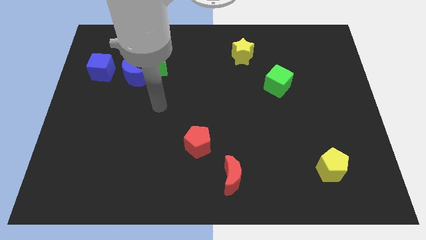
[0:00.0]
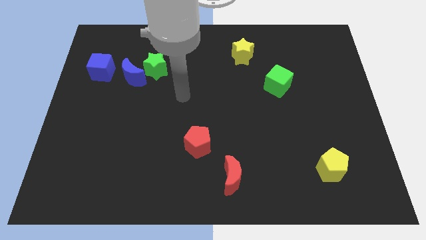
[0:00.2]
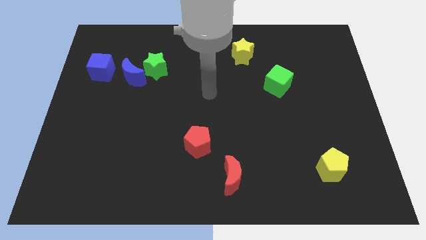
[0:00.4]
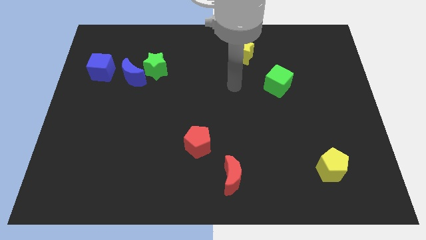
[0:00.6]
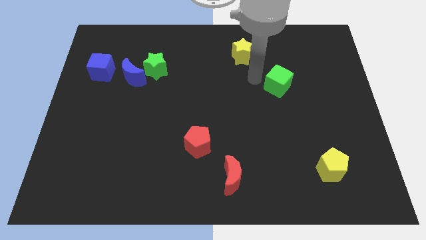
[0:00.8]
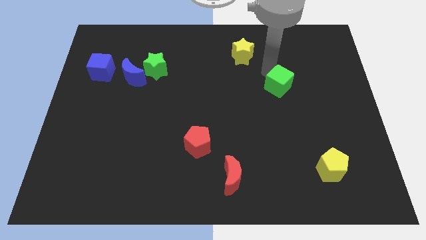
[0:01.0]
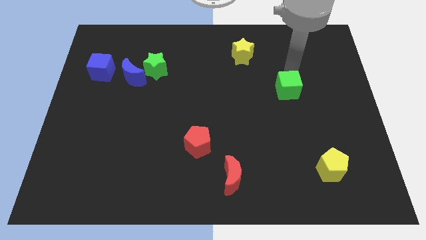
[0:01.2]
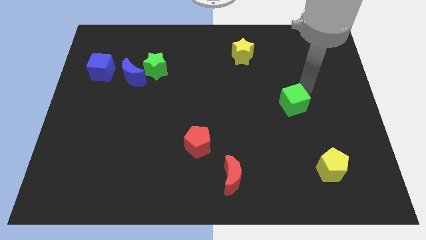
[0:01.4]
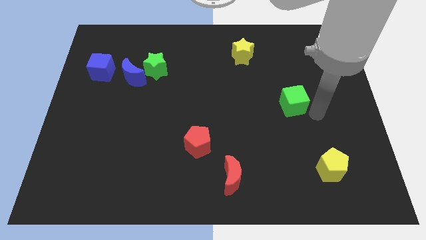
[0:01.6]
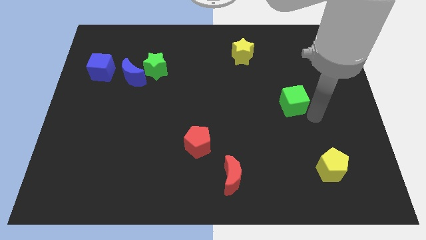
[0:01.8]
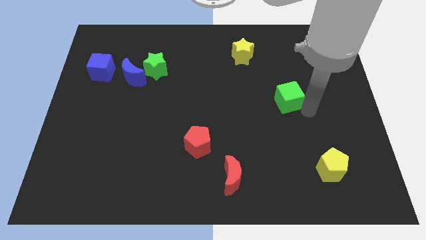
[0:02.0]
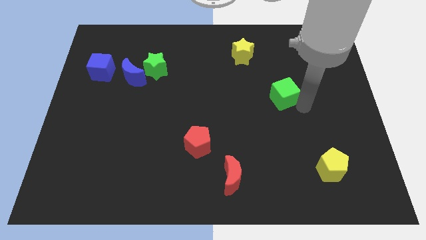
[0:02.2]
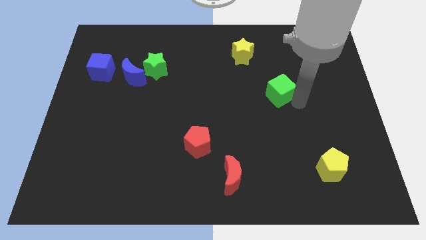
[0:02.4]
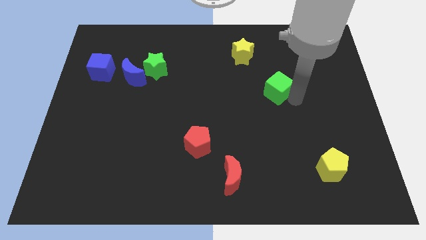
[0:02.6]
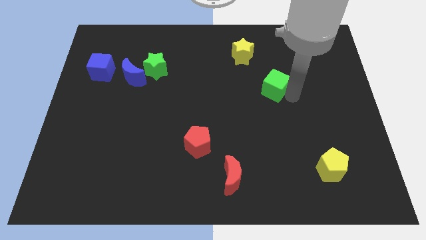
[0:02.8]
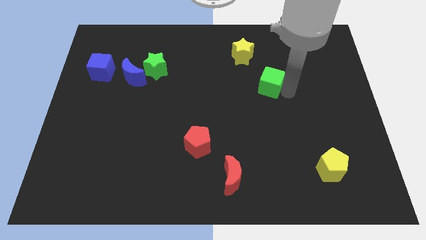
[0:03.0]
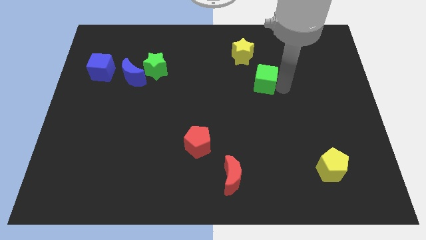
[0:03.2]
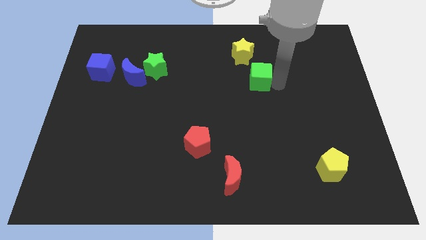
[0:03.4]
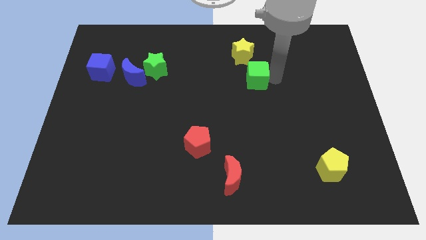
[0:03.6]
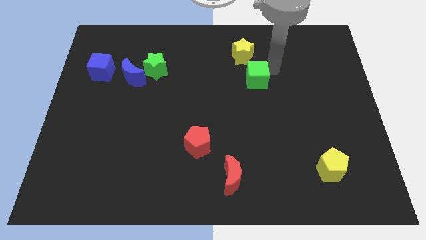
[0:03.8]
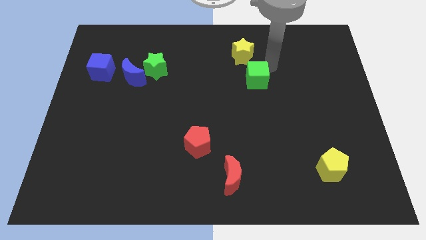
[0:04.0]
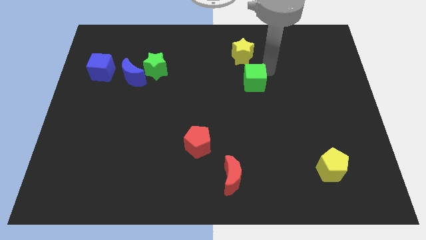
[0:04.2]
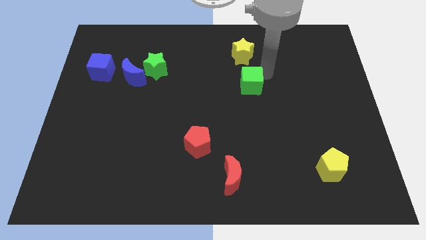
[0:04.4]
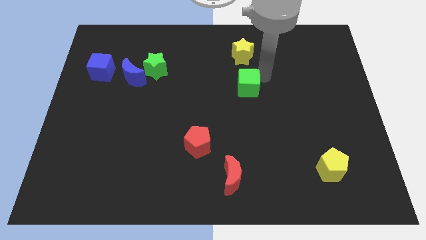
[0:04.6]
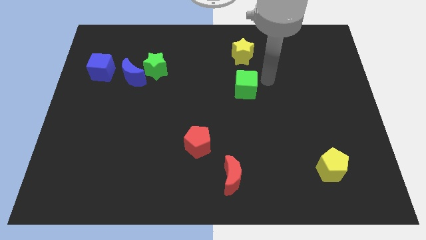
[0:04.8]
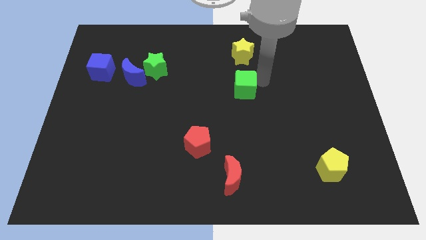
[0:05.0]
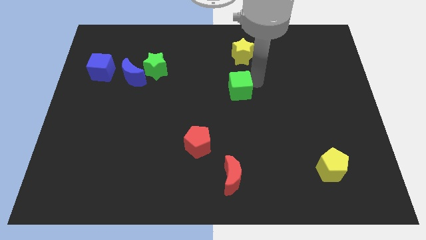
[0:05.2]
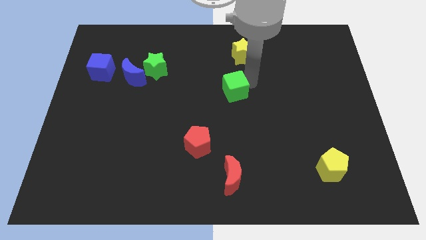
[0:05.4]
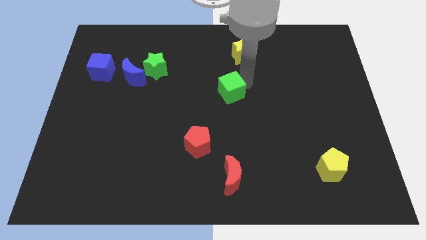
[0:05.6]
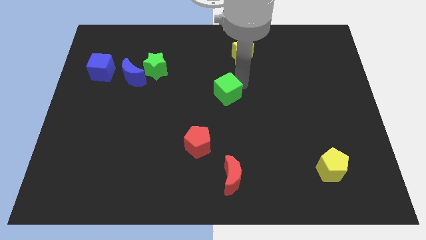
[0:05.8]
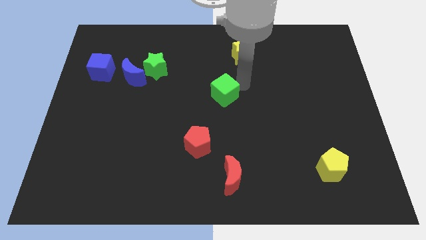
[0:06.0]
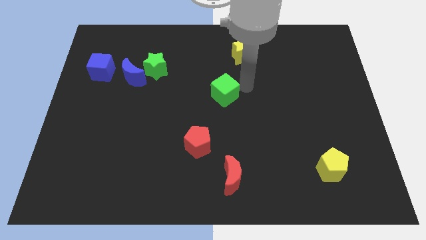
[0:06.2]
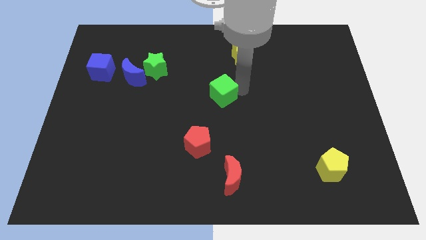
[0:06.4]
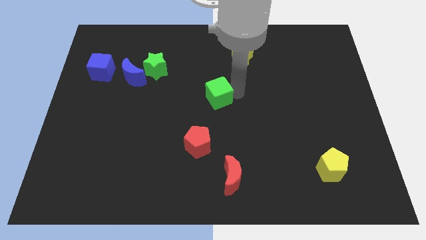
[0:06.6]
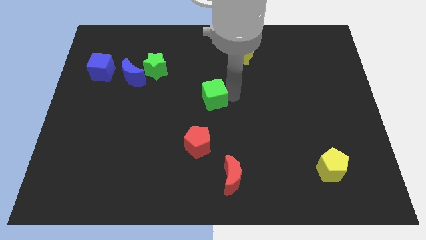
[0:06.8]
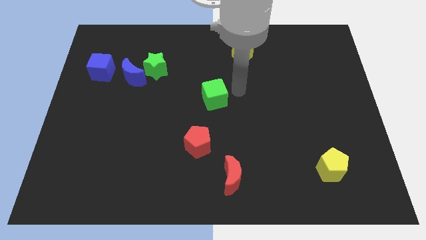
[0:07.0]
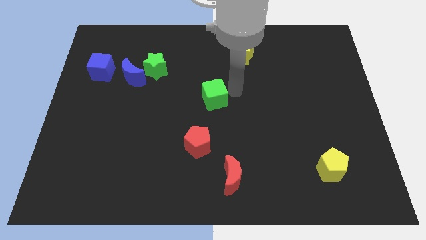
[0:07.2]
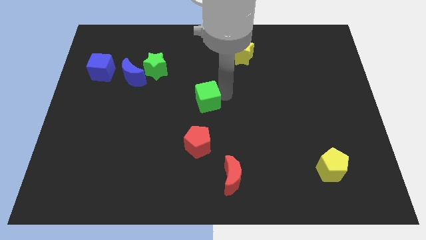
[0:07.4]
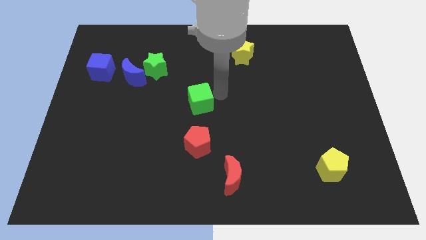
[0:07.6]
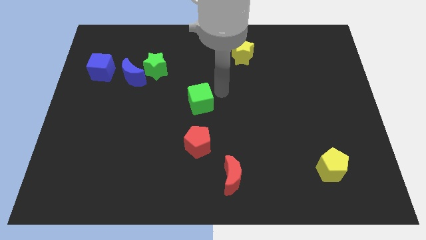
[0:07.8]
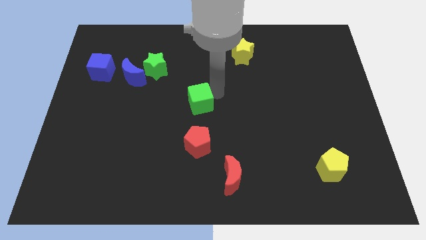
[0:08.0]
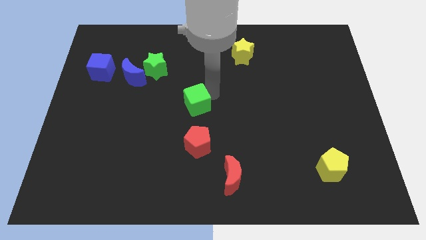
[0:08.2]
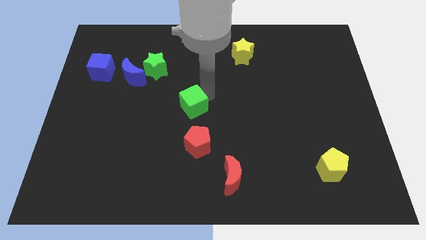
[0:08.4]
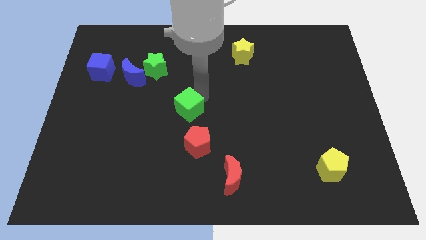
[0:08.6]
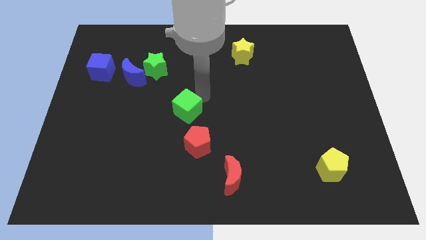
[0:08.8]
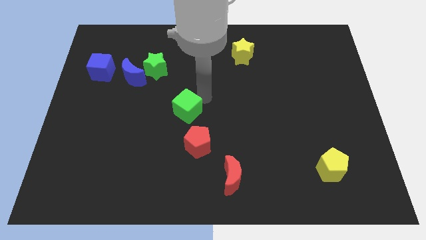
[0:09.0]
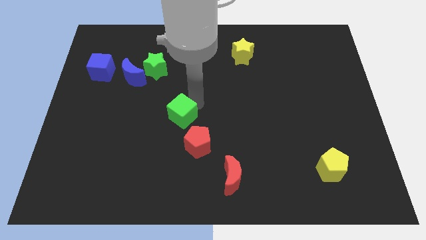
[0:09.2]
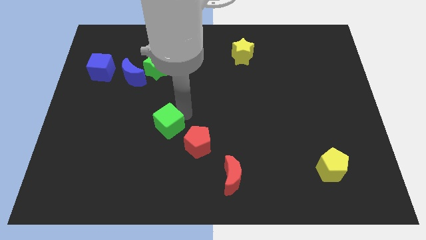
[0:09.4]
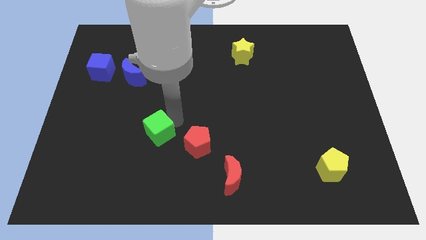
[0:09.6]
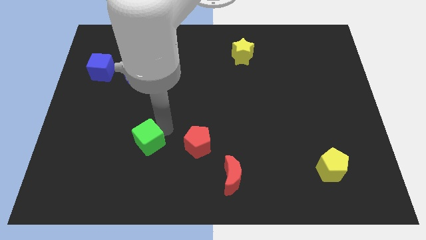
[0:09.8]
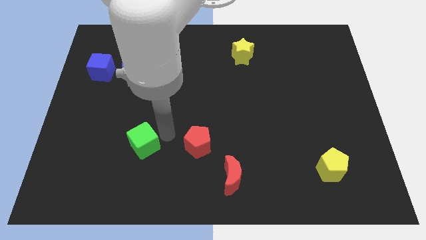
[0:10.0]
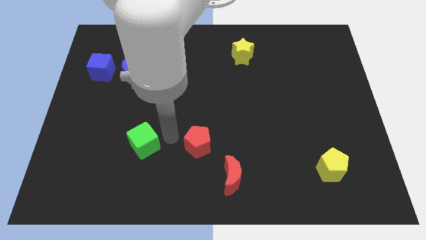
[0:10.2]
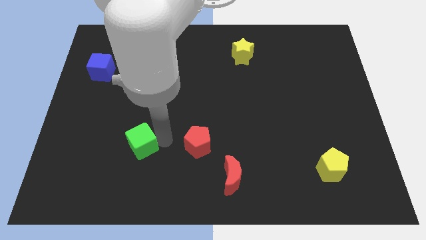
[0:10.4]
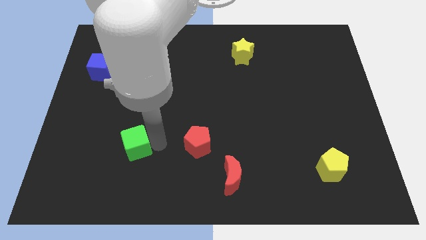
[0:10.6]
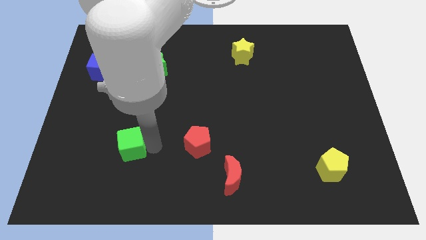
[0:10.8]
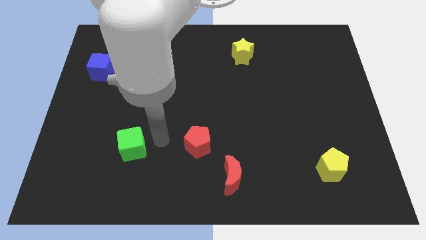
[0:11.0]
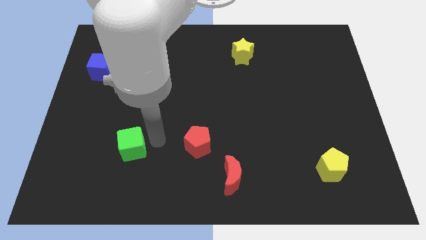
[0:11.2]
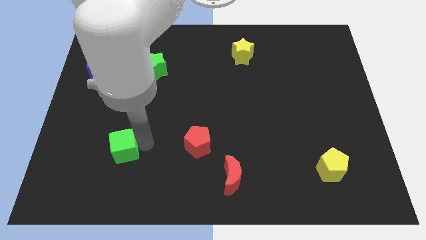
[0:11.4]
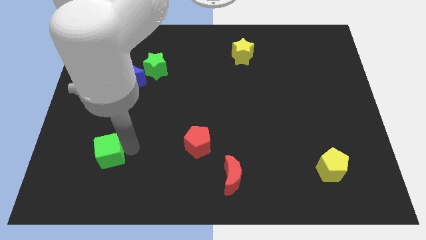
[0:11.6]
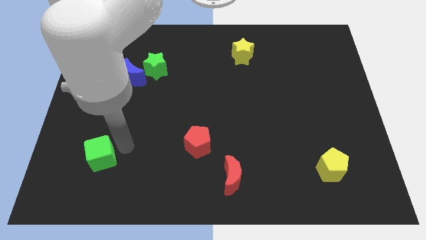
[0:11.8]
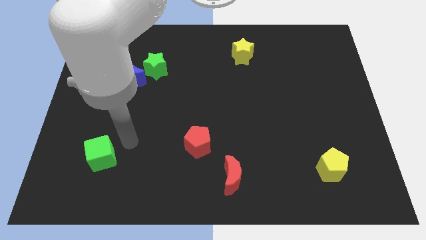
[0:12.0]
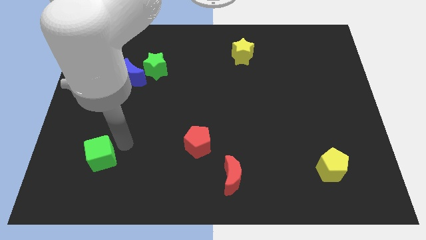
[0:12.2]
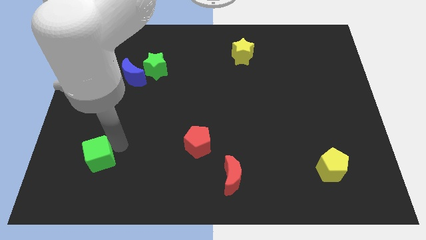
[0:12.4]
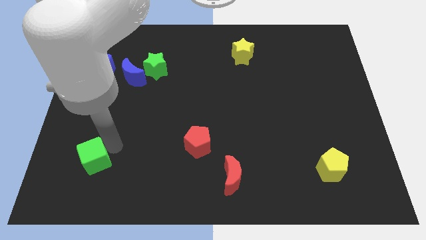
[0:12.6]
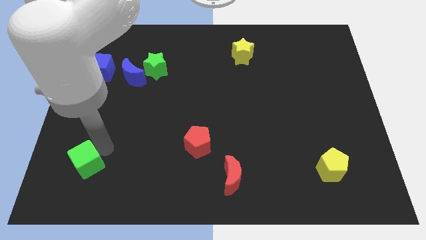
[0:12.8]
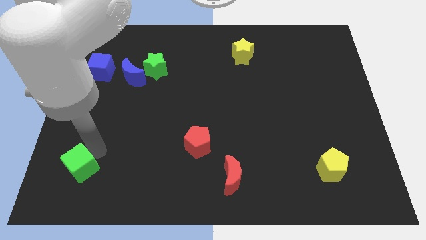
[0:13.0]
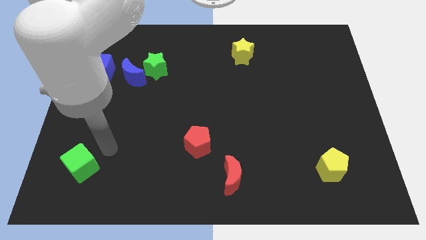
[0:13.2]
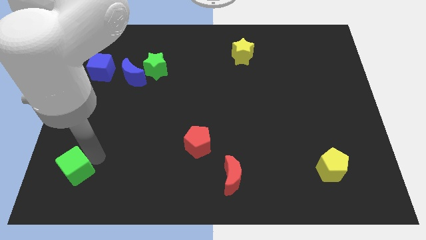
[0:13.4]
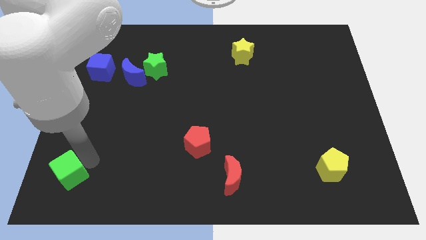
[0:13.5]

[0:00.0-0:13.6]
put the green cube to the bottom left
